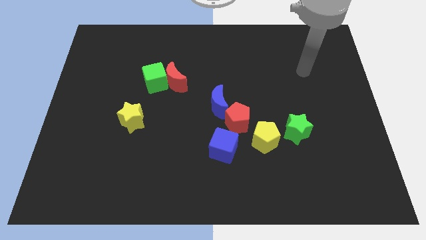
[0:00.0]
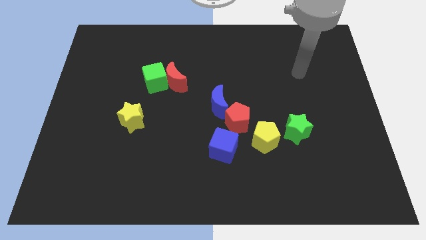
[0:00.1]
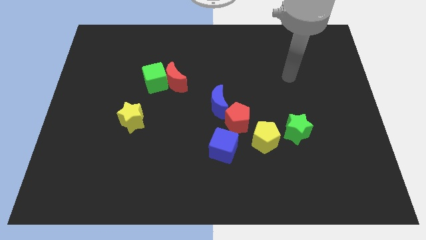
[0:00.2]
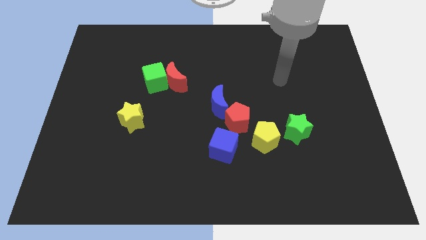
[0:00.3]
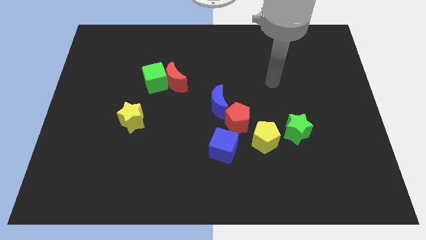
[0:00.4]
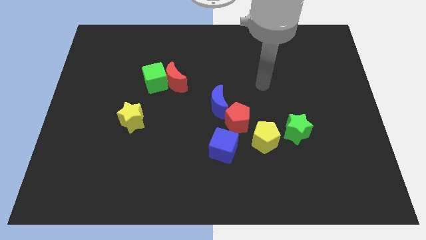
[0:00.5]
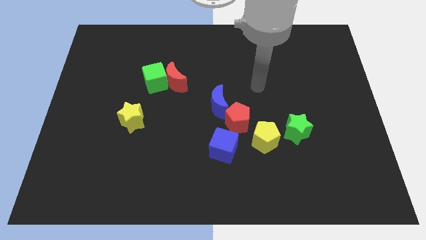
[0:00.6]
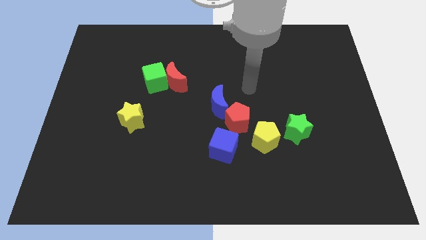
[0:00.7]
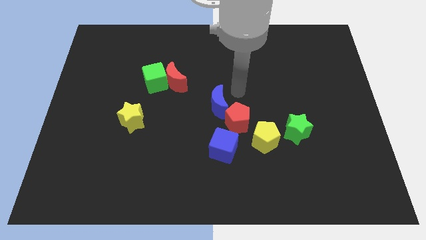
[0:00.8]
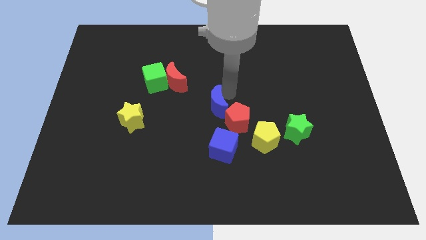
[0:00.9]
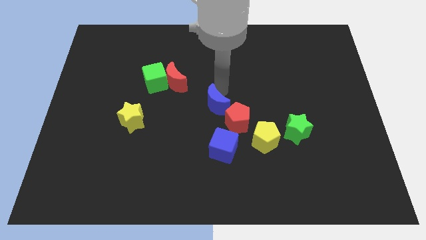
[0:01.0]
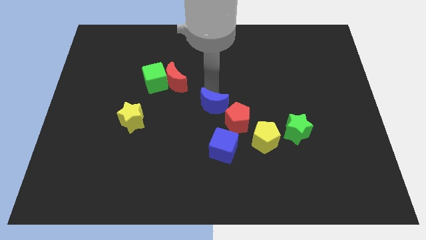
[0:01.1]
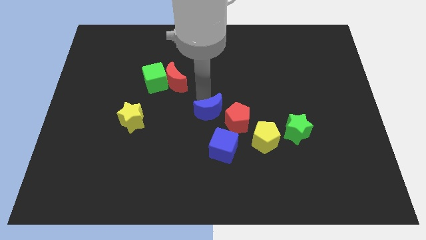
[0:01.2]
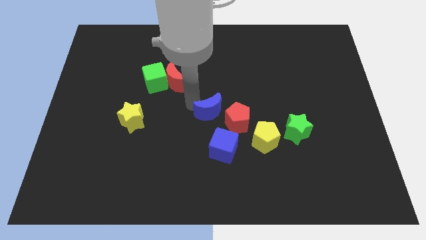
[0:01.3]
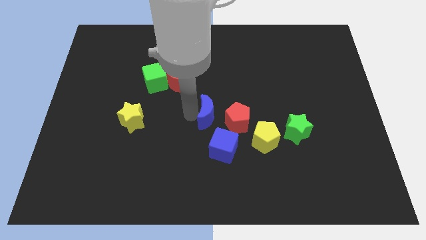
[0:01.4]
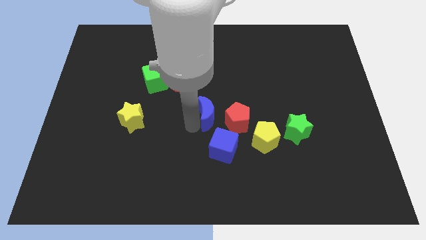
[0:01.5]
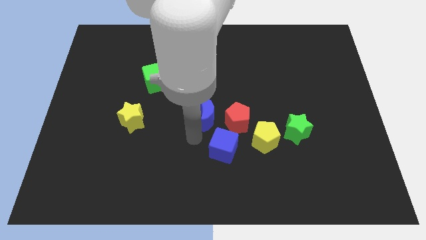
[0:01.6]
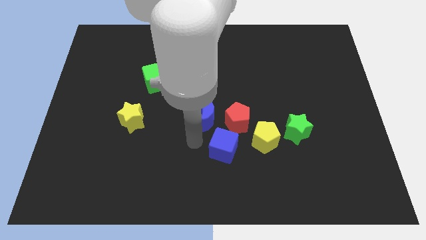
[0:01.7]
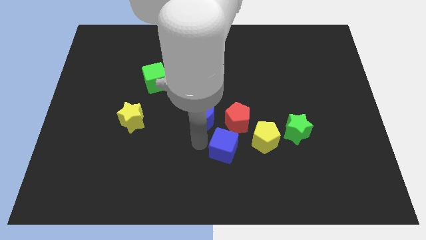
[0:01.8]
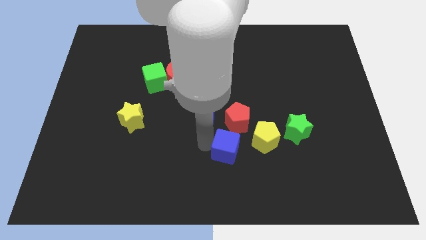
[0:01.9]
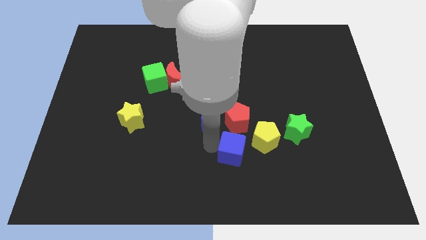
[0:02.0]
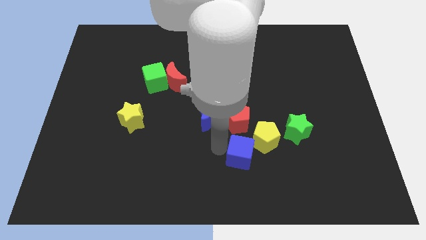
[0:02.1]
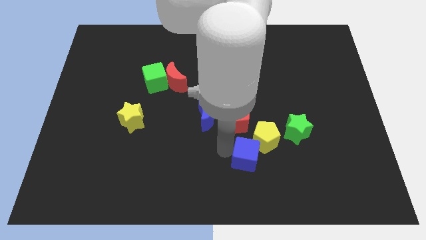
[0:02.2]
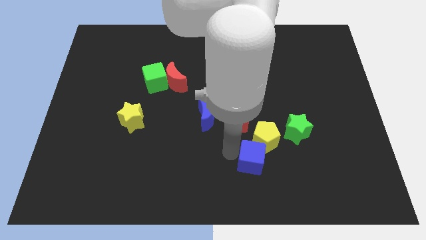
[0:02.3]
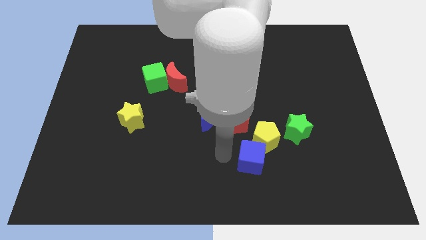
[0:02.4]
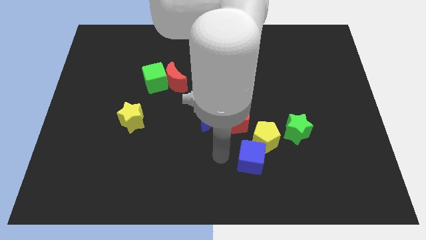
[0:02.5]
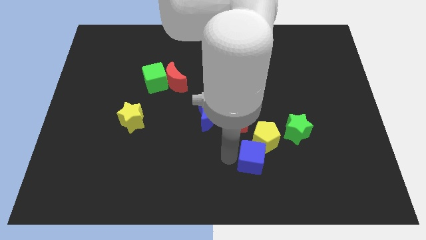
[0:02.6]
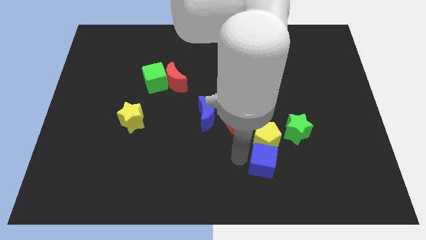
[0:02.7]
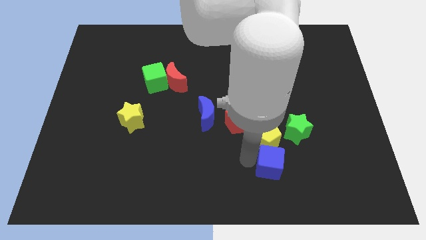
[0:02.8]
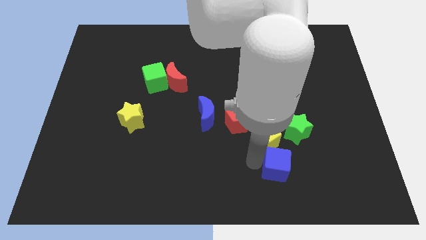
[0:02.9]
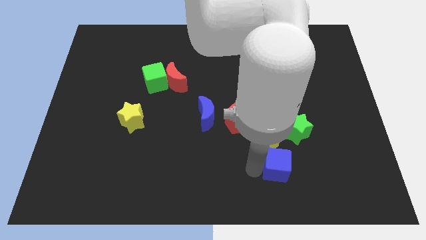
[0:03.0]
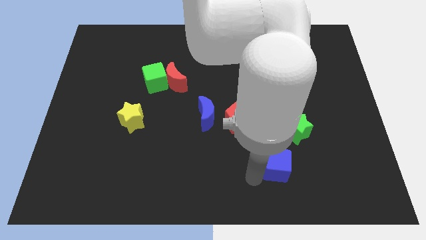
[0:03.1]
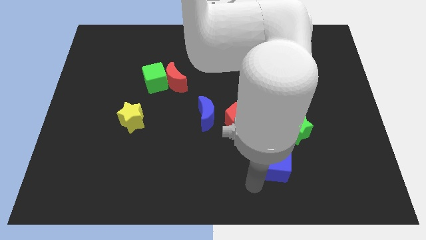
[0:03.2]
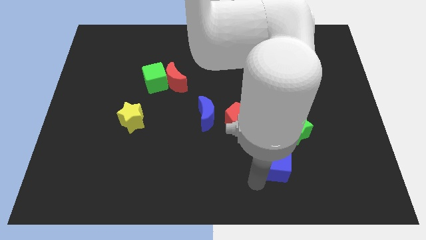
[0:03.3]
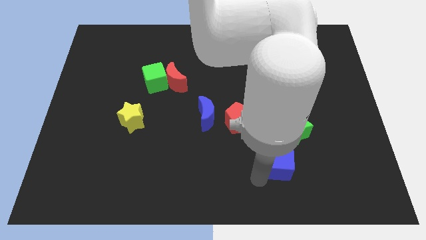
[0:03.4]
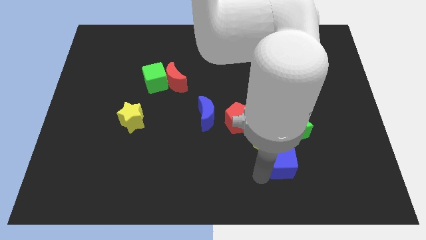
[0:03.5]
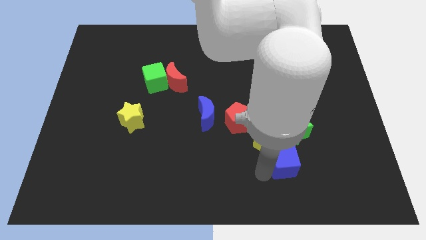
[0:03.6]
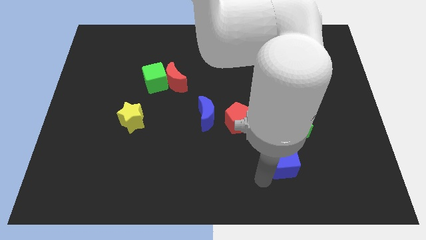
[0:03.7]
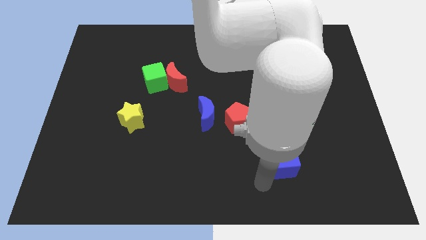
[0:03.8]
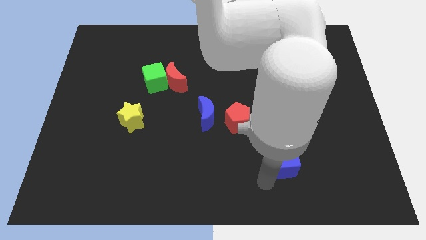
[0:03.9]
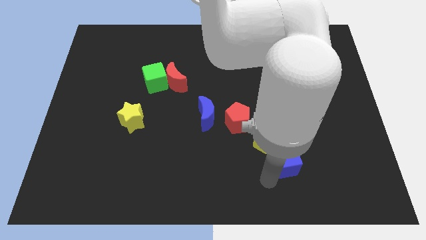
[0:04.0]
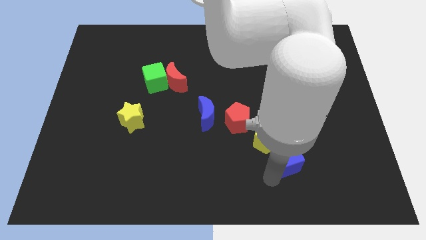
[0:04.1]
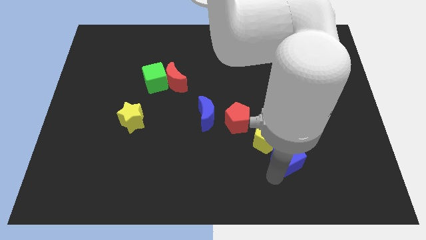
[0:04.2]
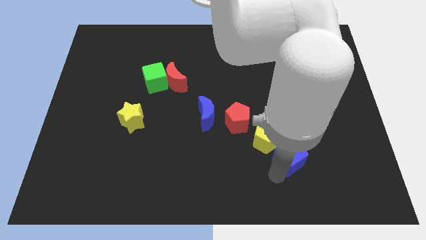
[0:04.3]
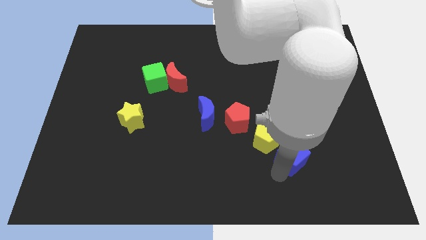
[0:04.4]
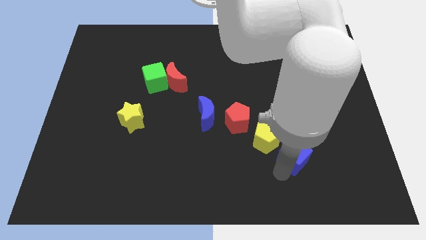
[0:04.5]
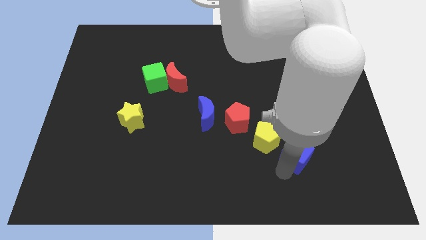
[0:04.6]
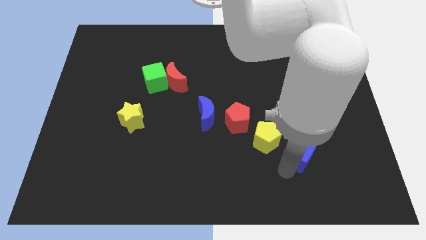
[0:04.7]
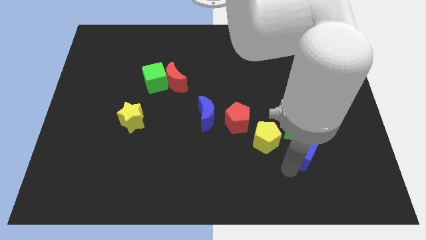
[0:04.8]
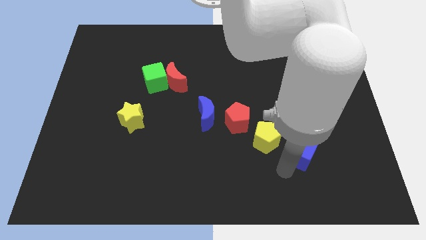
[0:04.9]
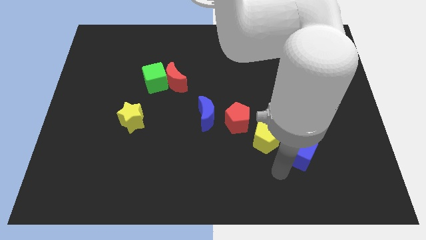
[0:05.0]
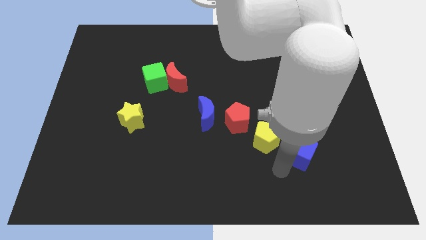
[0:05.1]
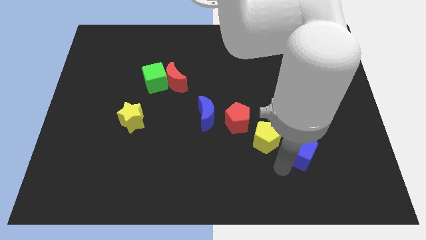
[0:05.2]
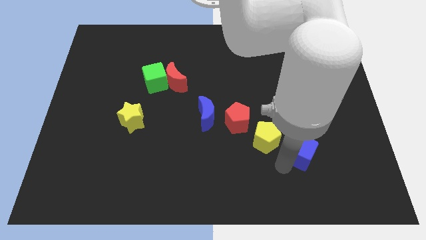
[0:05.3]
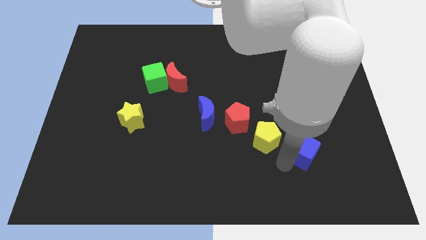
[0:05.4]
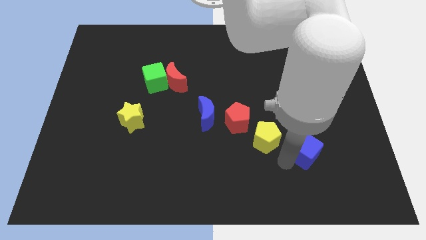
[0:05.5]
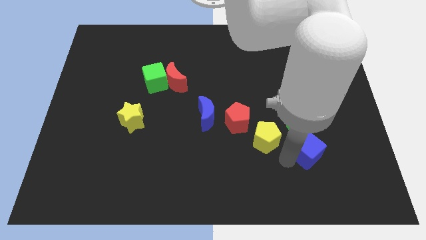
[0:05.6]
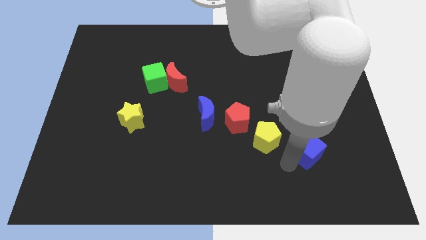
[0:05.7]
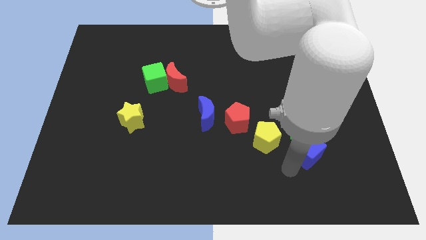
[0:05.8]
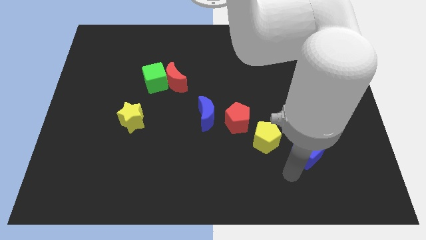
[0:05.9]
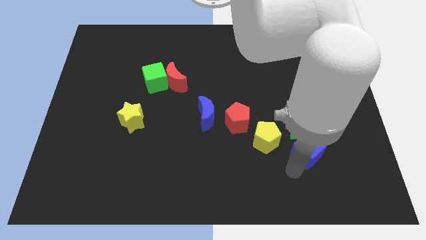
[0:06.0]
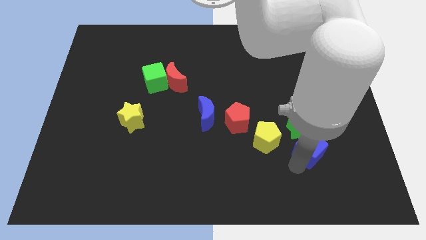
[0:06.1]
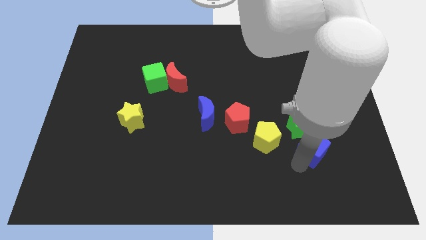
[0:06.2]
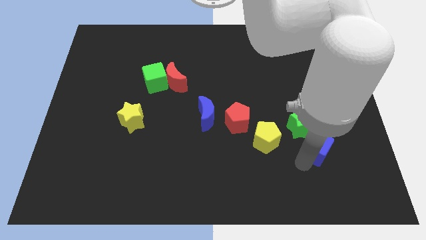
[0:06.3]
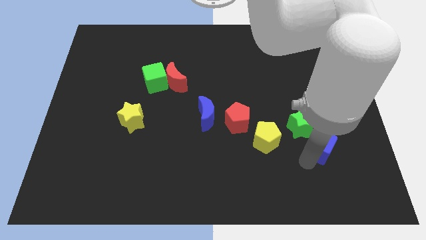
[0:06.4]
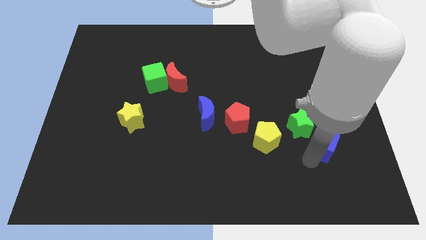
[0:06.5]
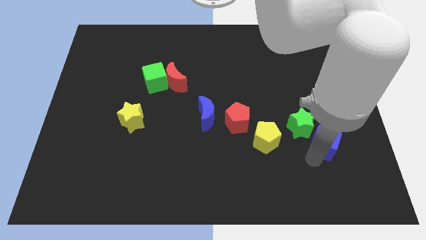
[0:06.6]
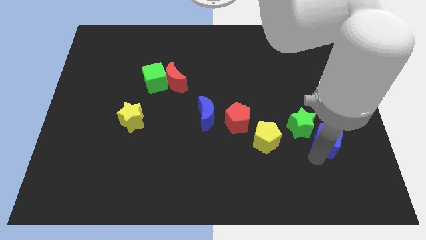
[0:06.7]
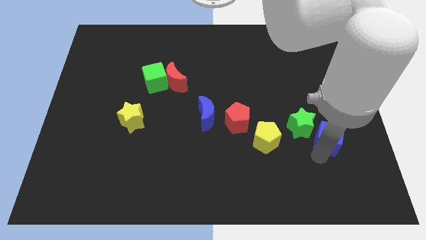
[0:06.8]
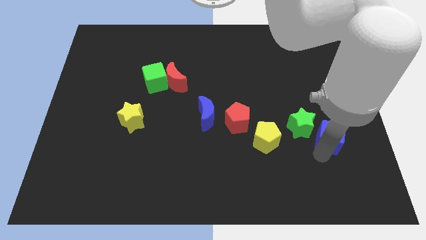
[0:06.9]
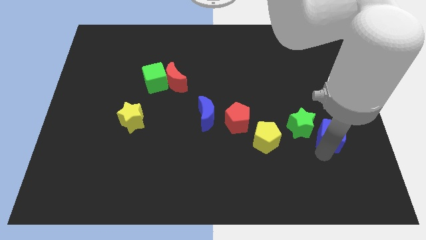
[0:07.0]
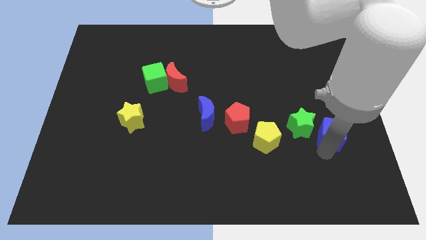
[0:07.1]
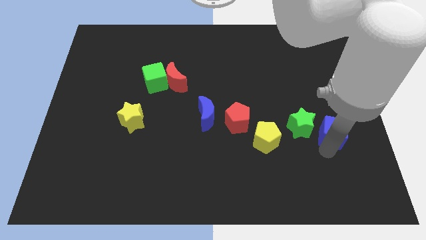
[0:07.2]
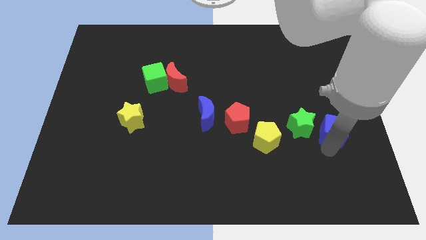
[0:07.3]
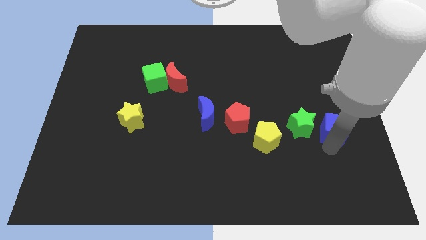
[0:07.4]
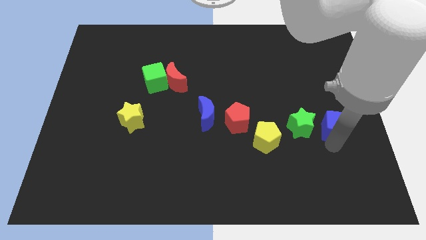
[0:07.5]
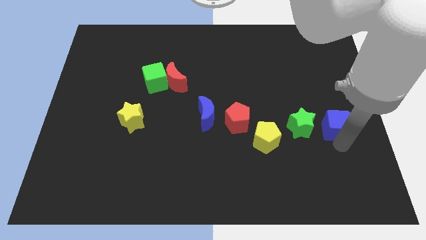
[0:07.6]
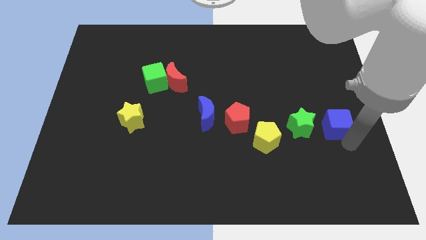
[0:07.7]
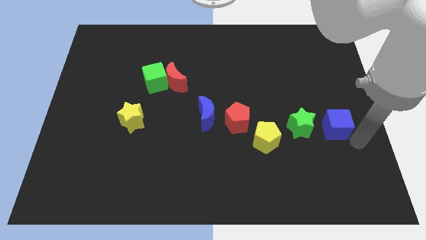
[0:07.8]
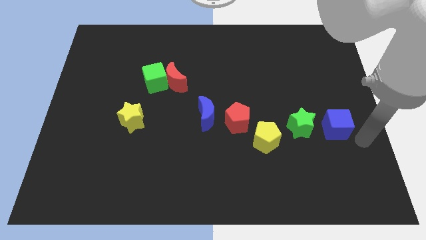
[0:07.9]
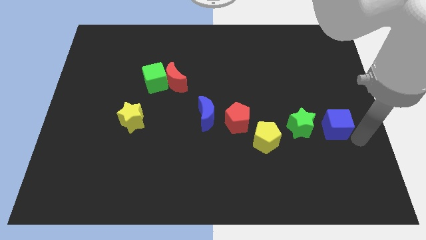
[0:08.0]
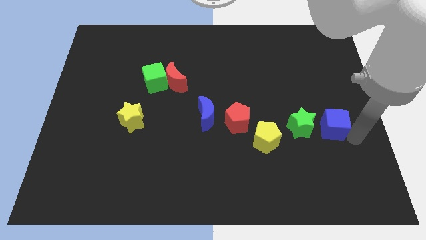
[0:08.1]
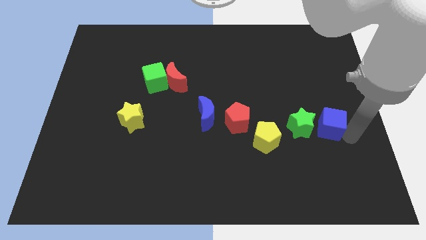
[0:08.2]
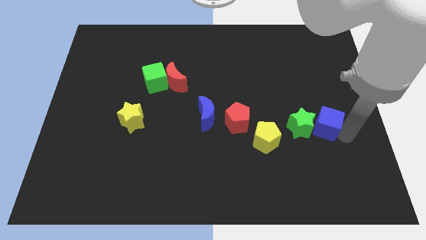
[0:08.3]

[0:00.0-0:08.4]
slightly move the blue cube upwards and then right

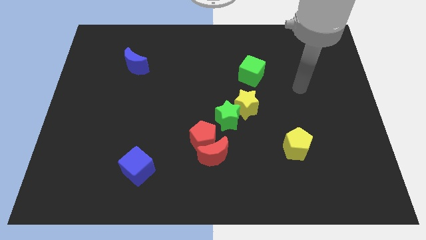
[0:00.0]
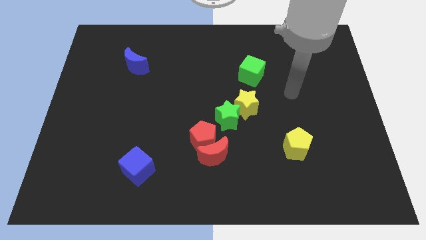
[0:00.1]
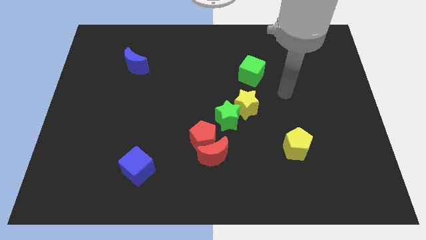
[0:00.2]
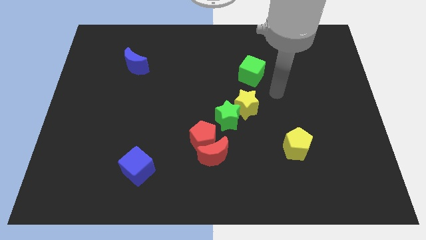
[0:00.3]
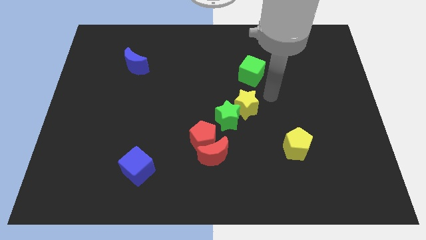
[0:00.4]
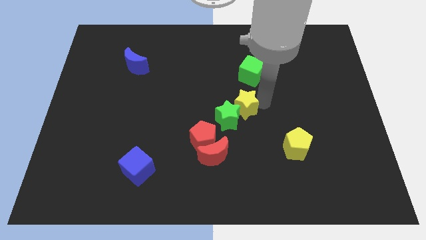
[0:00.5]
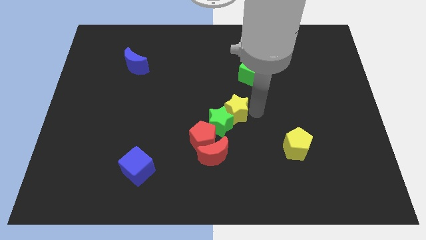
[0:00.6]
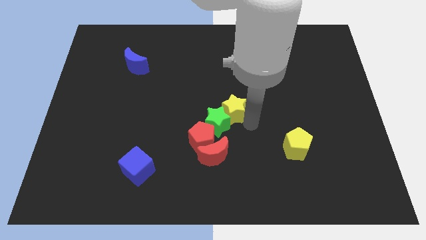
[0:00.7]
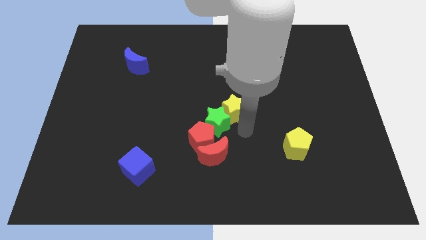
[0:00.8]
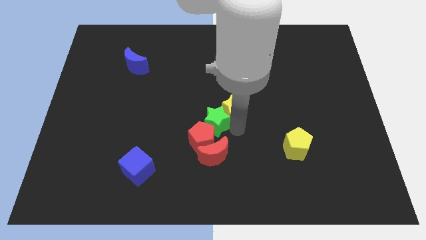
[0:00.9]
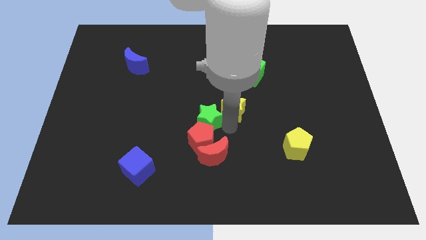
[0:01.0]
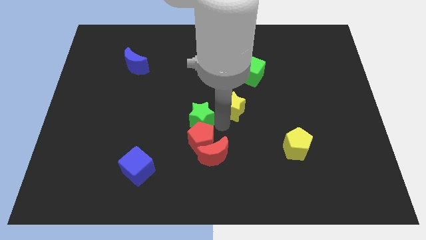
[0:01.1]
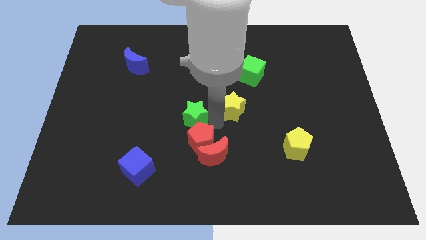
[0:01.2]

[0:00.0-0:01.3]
slide the green star left slightly
